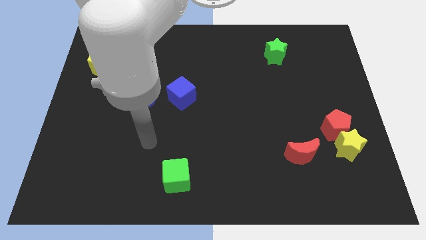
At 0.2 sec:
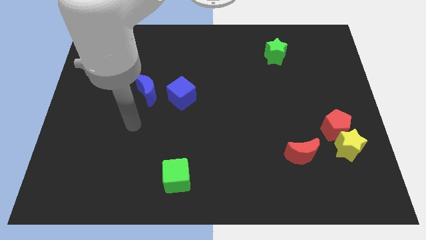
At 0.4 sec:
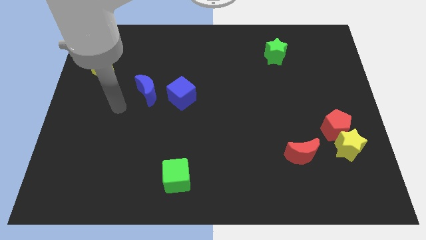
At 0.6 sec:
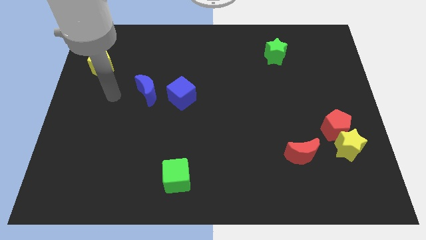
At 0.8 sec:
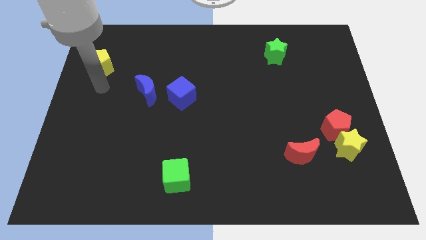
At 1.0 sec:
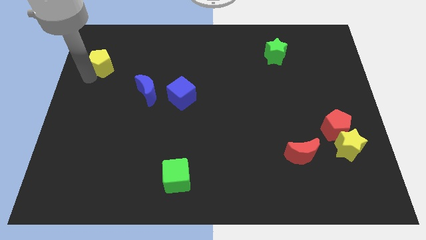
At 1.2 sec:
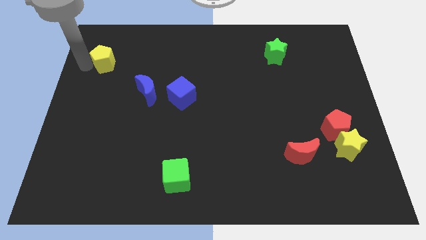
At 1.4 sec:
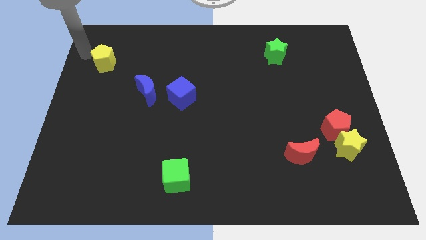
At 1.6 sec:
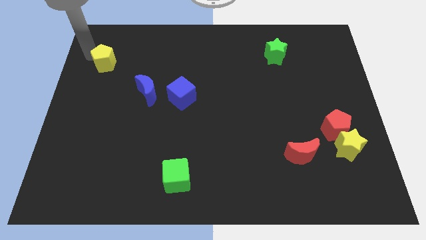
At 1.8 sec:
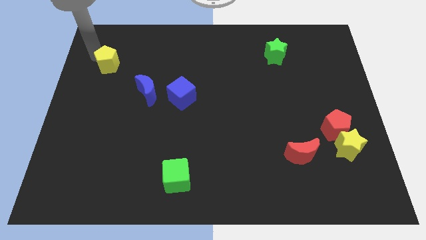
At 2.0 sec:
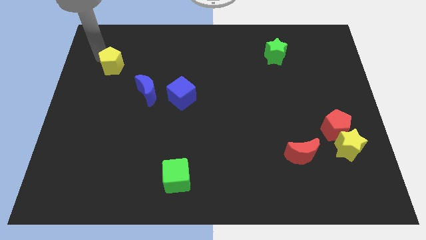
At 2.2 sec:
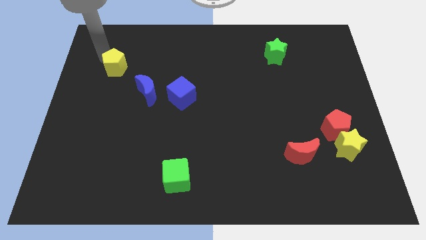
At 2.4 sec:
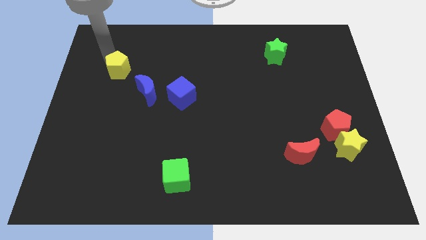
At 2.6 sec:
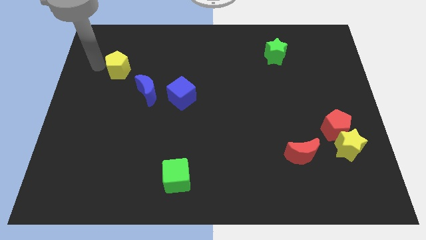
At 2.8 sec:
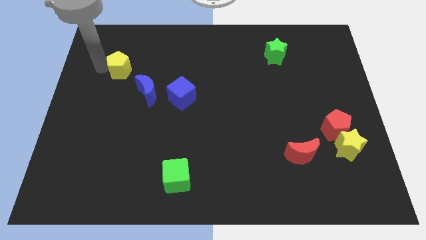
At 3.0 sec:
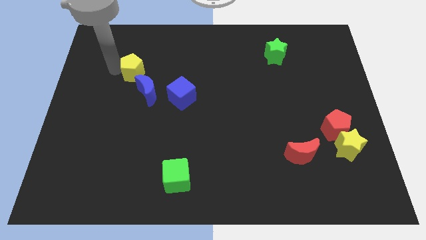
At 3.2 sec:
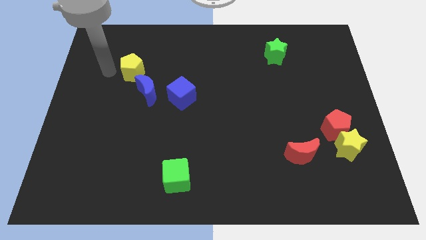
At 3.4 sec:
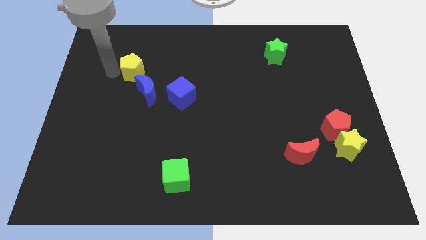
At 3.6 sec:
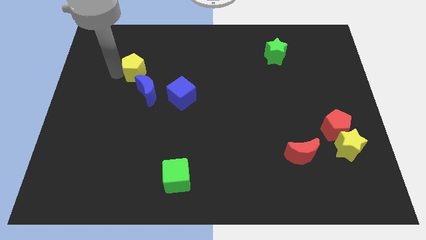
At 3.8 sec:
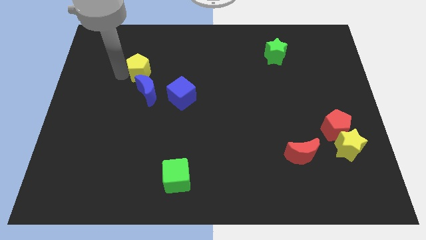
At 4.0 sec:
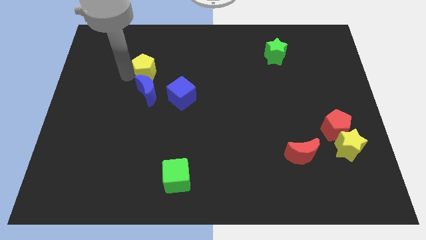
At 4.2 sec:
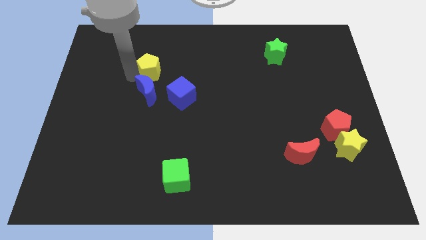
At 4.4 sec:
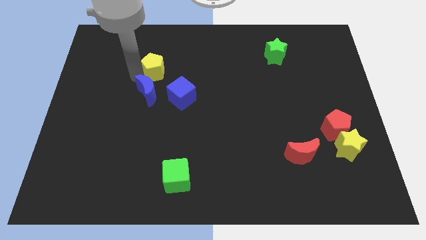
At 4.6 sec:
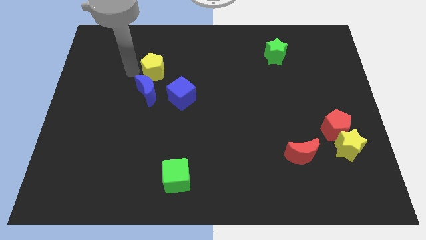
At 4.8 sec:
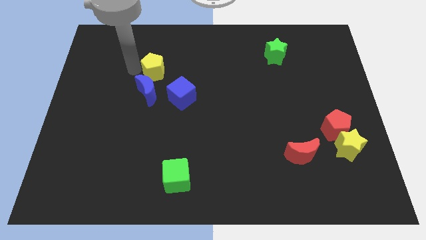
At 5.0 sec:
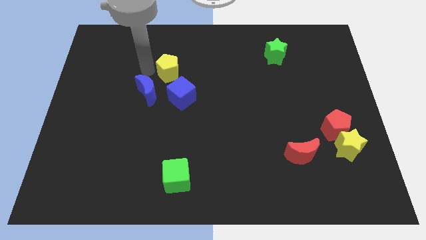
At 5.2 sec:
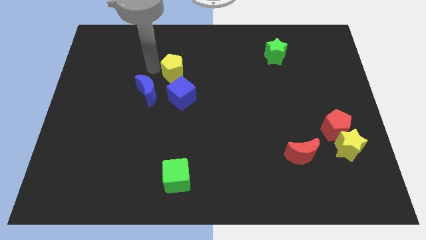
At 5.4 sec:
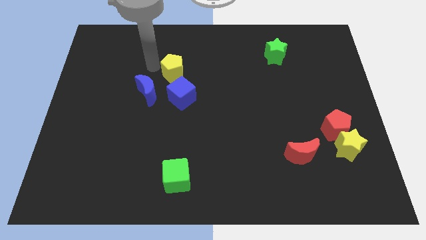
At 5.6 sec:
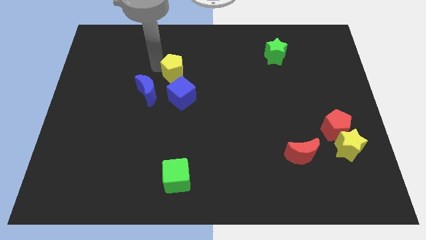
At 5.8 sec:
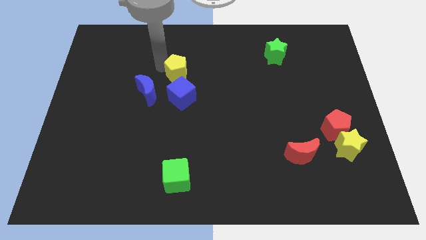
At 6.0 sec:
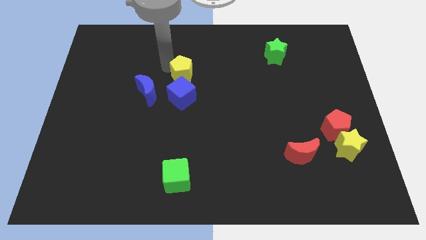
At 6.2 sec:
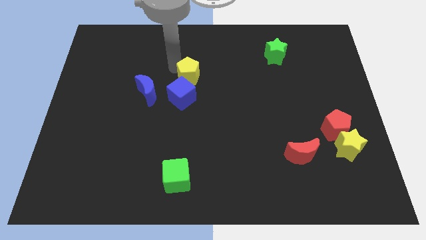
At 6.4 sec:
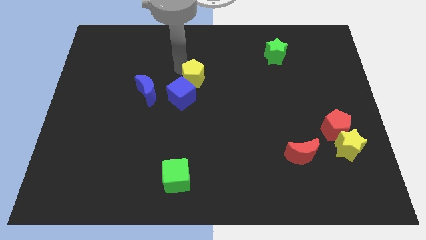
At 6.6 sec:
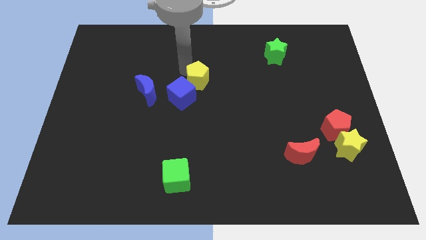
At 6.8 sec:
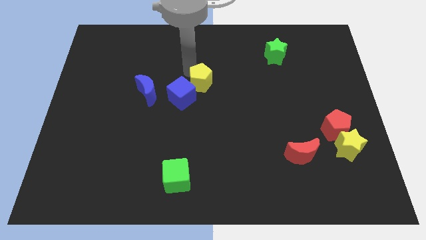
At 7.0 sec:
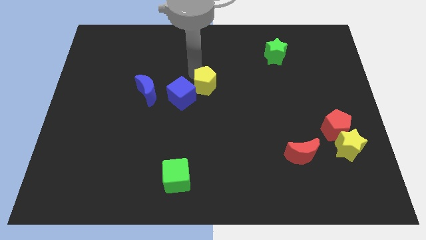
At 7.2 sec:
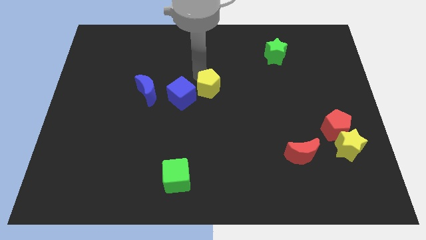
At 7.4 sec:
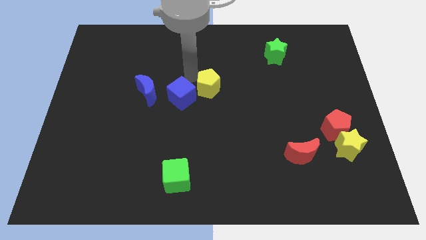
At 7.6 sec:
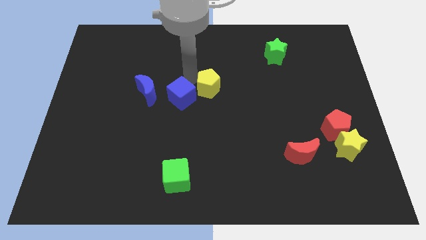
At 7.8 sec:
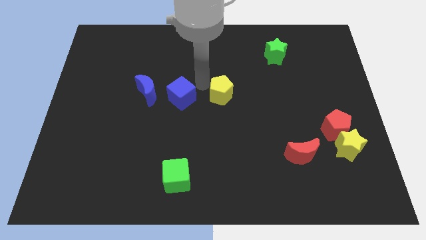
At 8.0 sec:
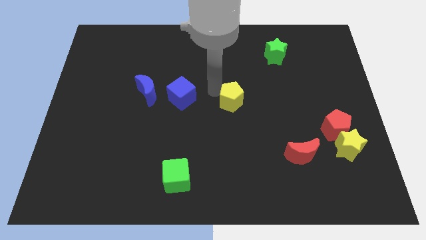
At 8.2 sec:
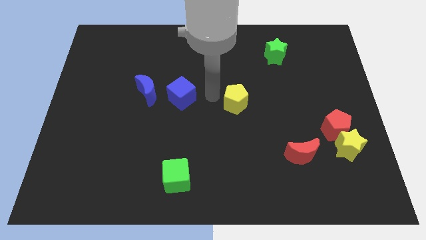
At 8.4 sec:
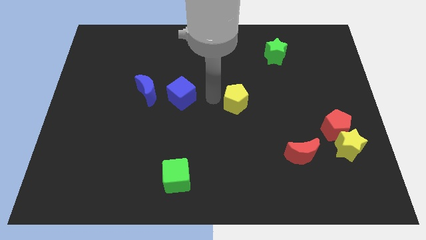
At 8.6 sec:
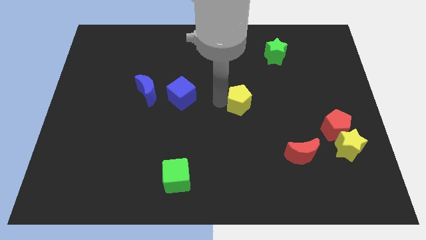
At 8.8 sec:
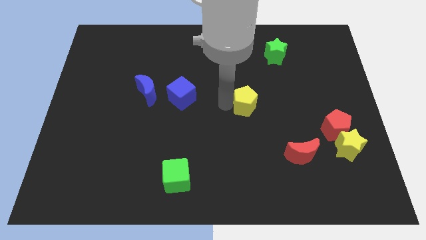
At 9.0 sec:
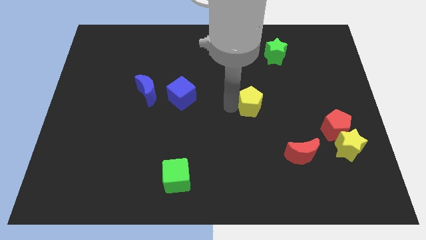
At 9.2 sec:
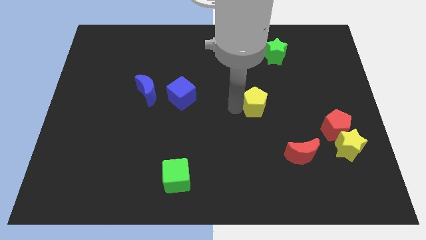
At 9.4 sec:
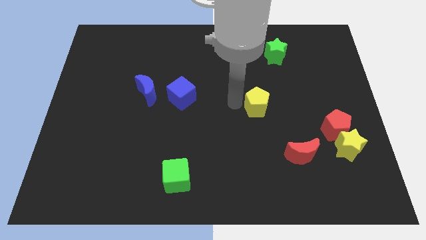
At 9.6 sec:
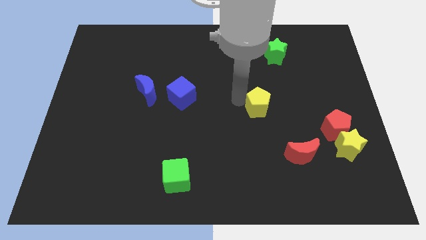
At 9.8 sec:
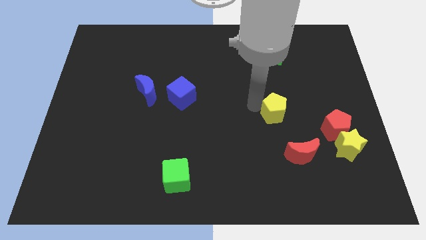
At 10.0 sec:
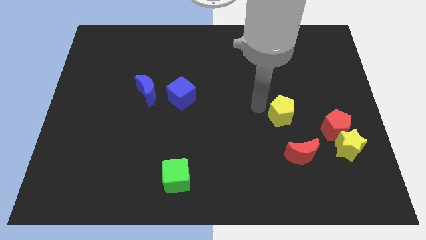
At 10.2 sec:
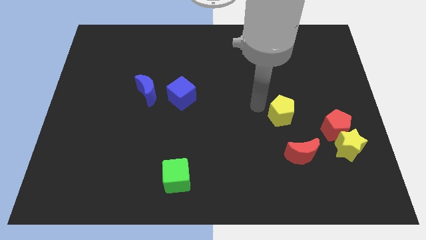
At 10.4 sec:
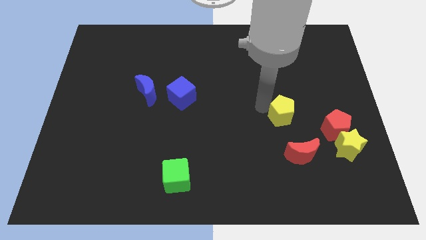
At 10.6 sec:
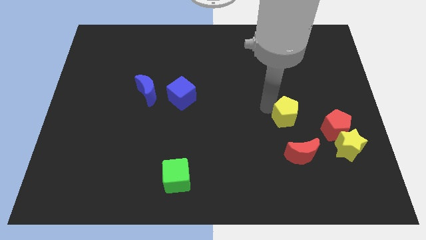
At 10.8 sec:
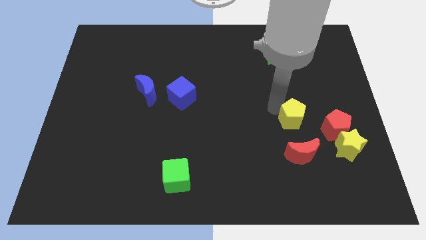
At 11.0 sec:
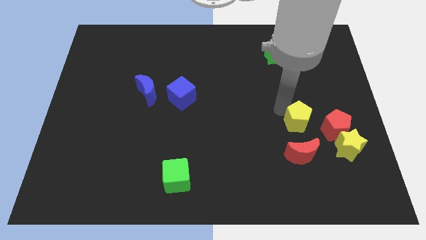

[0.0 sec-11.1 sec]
slide the yellow pentagon to the top left of the yellow star

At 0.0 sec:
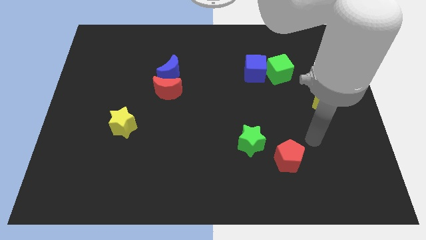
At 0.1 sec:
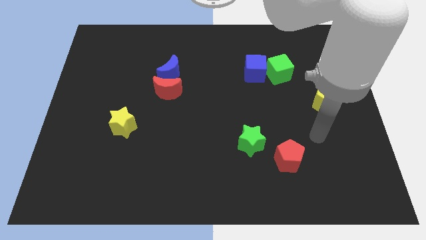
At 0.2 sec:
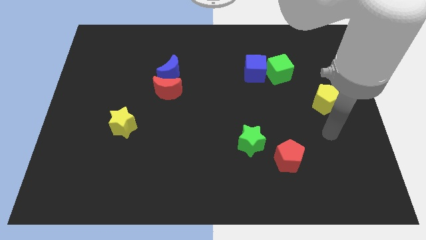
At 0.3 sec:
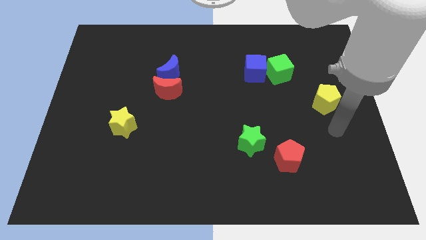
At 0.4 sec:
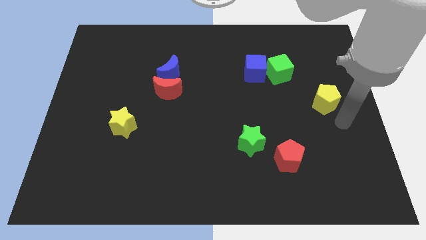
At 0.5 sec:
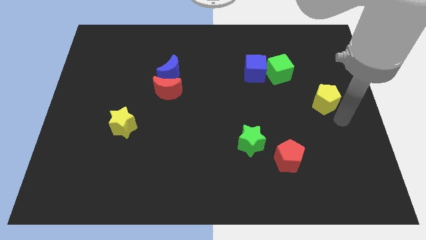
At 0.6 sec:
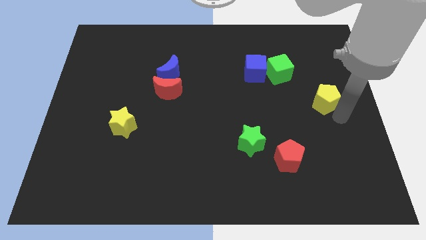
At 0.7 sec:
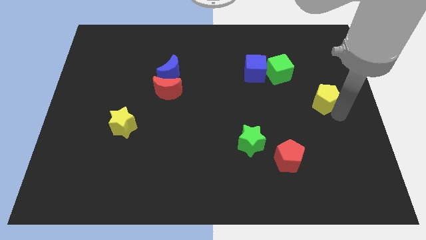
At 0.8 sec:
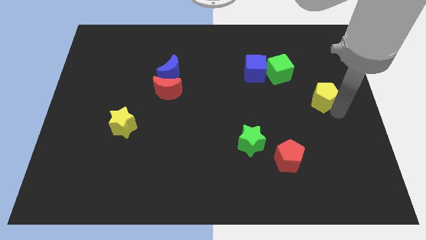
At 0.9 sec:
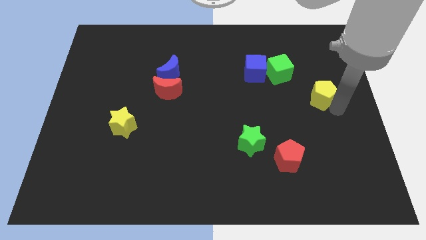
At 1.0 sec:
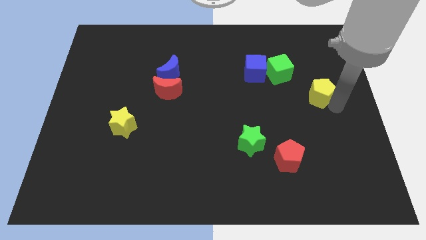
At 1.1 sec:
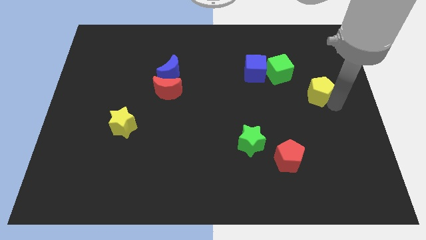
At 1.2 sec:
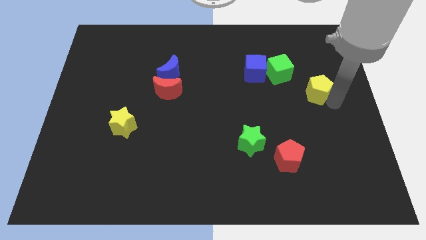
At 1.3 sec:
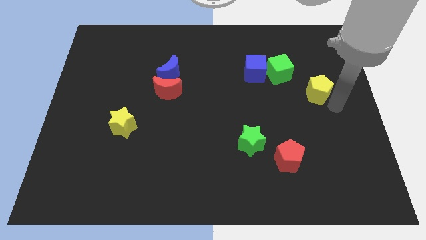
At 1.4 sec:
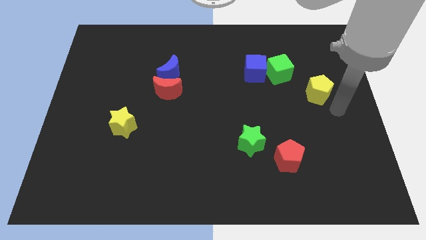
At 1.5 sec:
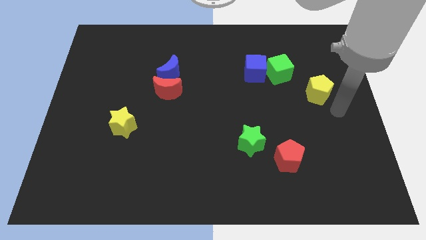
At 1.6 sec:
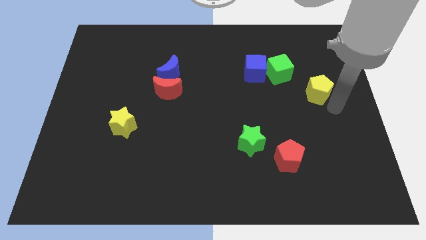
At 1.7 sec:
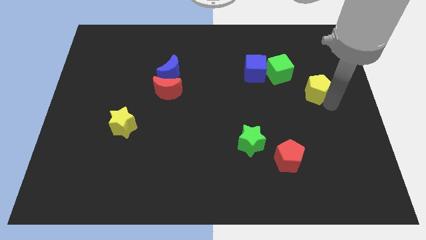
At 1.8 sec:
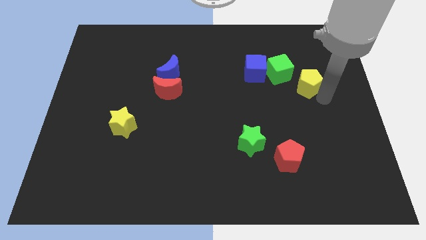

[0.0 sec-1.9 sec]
push the yellow pentagon to the right of the blue cube
